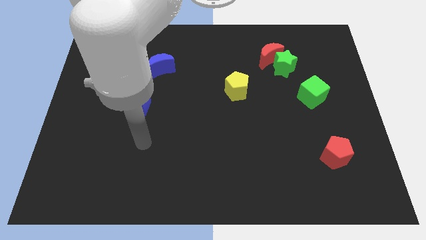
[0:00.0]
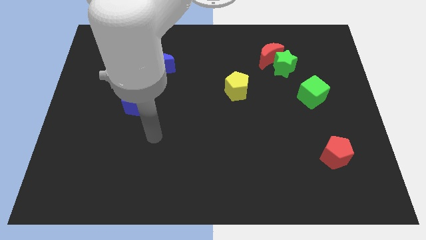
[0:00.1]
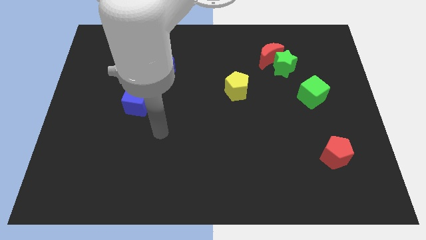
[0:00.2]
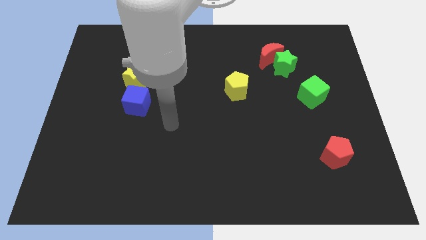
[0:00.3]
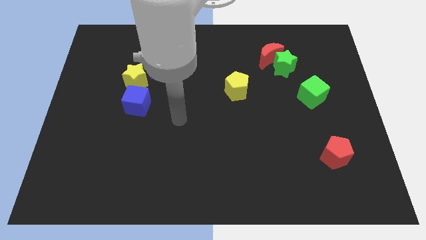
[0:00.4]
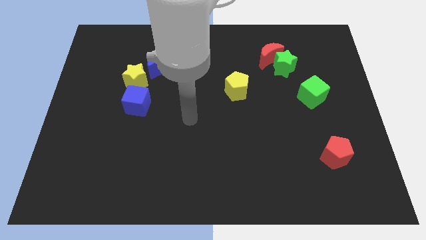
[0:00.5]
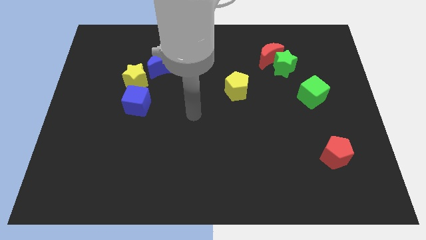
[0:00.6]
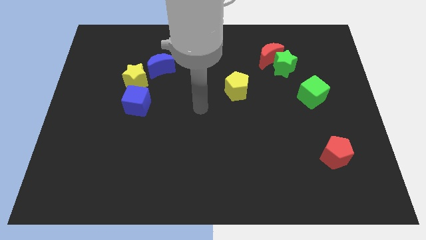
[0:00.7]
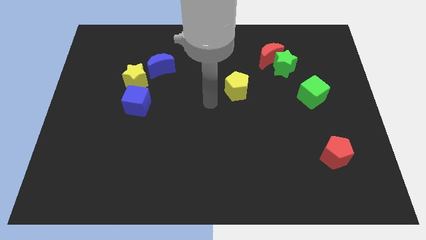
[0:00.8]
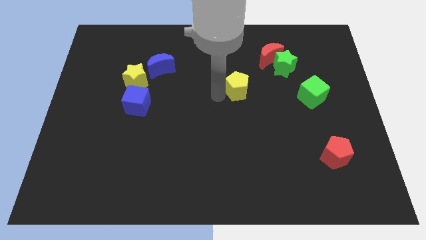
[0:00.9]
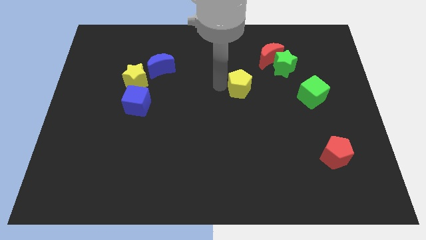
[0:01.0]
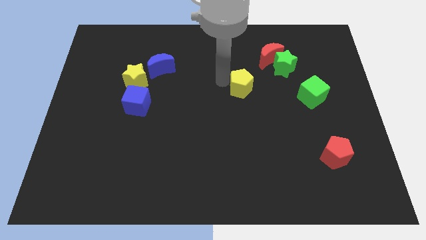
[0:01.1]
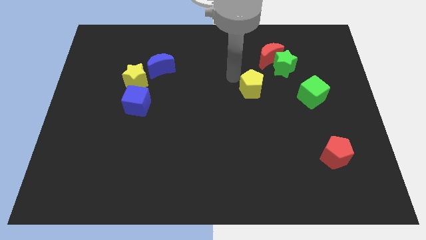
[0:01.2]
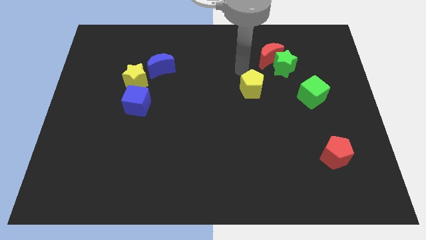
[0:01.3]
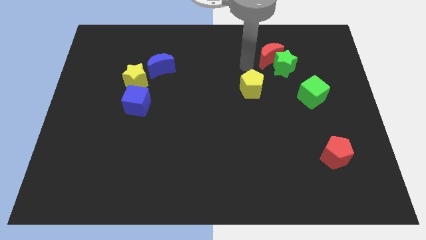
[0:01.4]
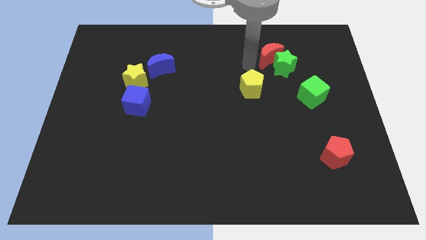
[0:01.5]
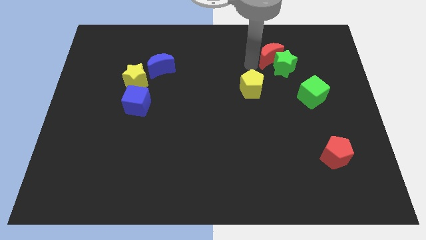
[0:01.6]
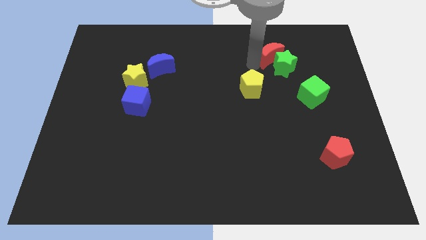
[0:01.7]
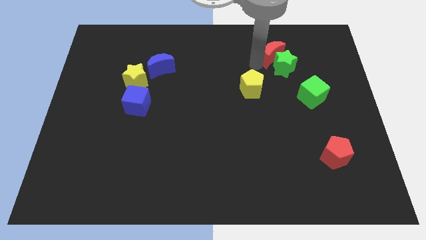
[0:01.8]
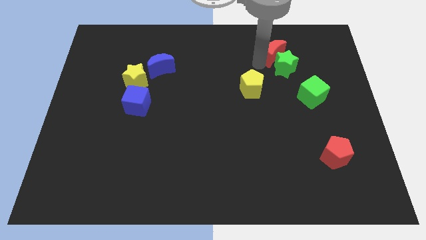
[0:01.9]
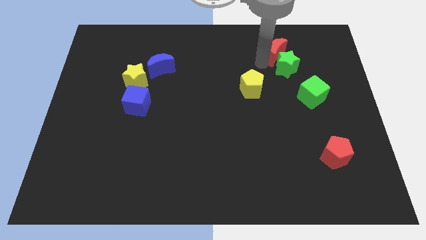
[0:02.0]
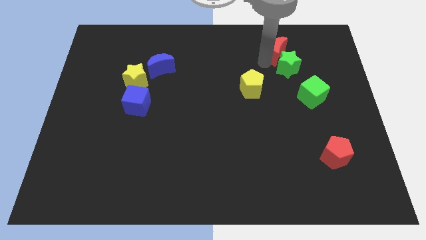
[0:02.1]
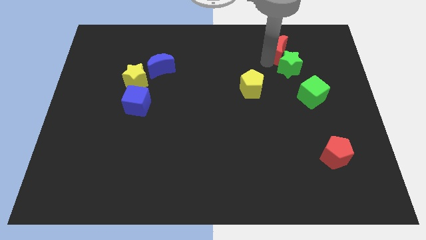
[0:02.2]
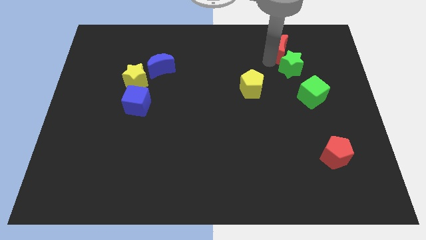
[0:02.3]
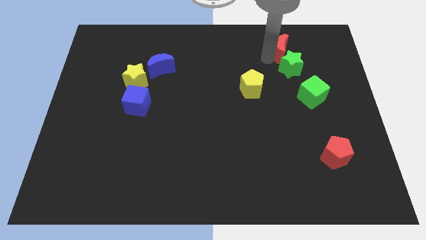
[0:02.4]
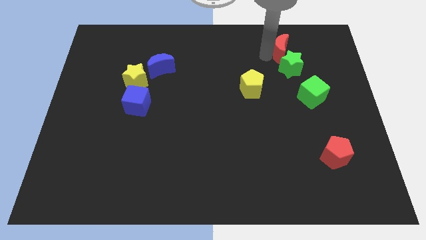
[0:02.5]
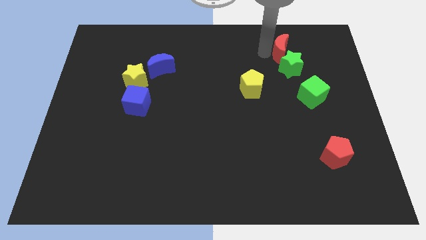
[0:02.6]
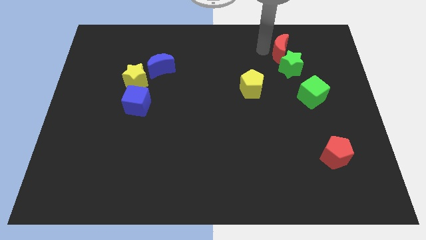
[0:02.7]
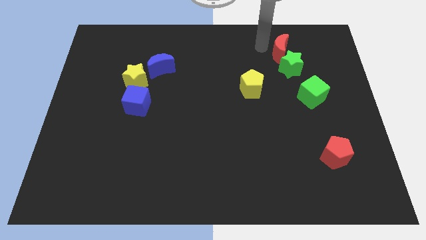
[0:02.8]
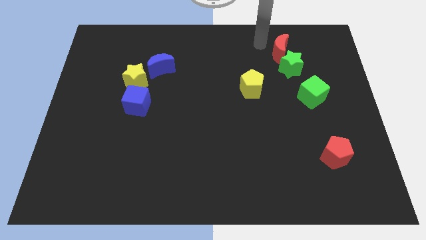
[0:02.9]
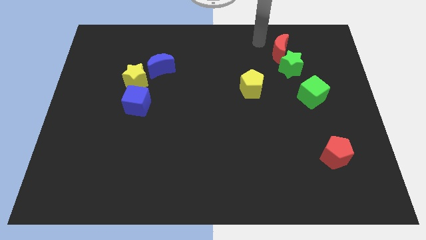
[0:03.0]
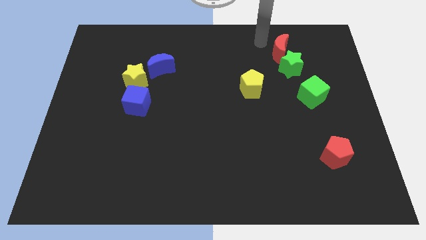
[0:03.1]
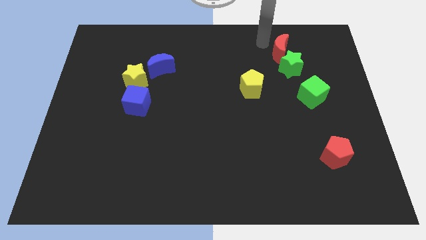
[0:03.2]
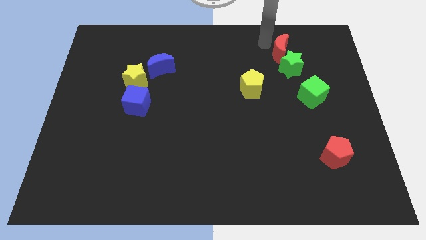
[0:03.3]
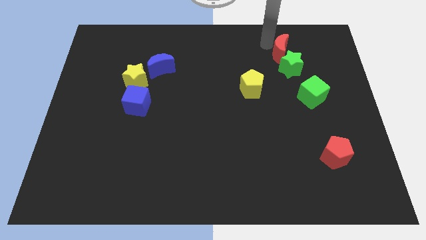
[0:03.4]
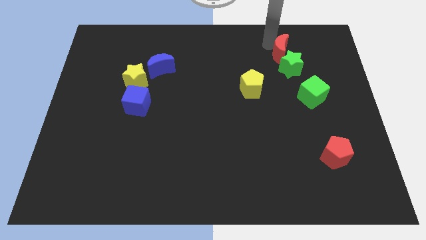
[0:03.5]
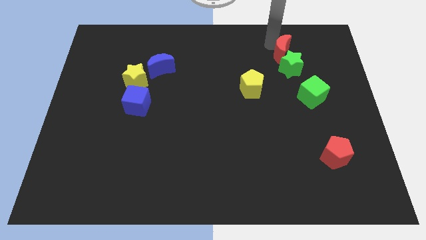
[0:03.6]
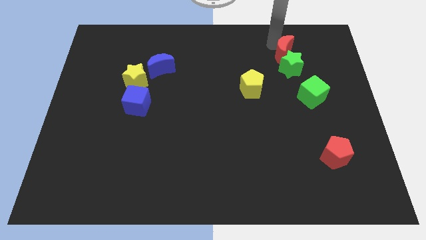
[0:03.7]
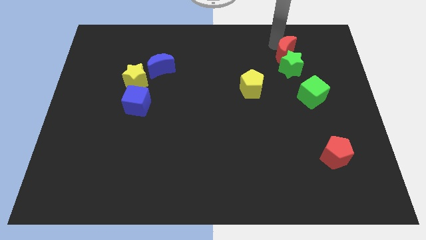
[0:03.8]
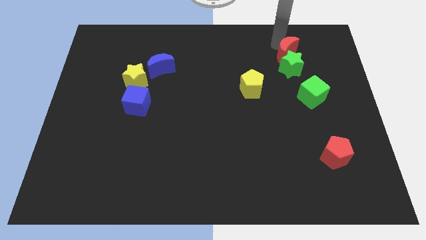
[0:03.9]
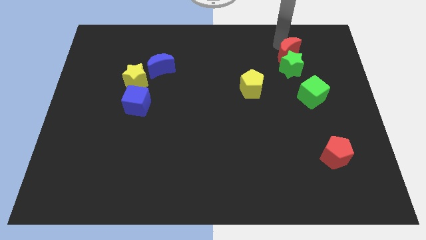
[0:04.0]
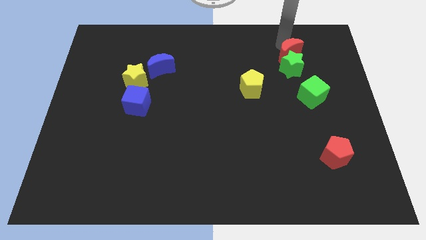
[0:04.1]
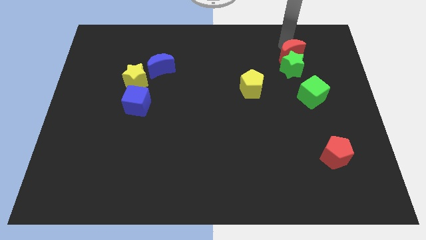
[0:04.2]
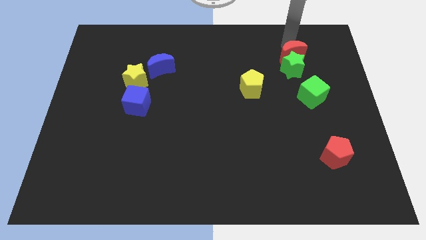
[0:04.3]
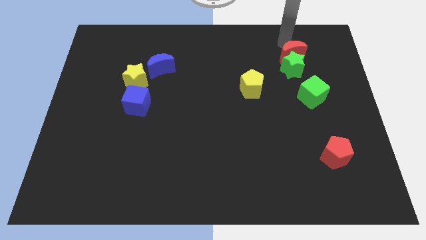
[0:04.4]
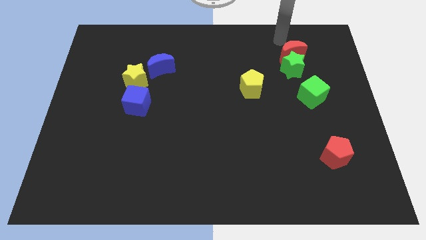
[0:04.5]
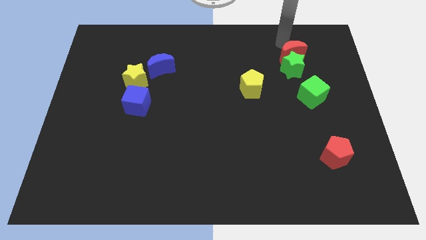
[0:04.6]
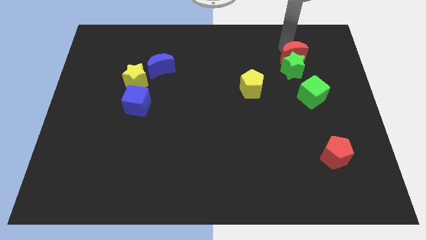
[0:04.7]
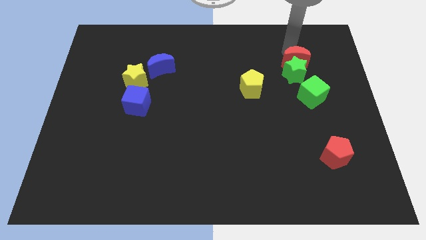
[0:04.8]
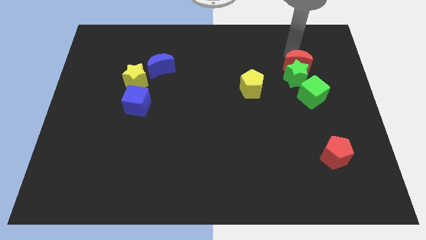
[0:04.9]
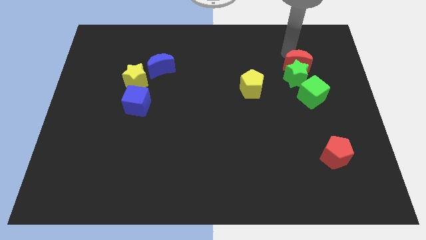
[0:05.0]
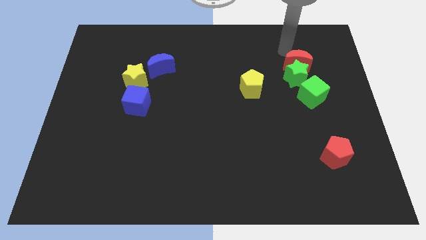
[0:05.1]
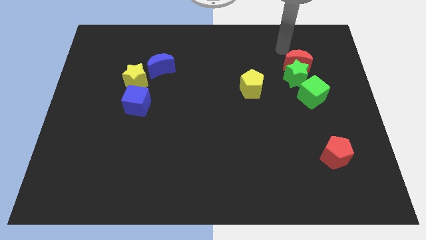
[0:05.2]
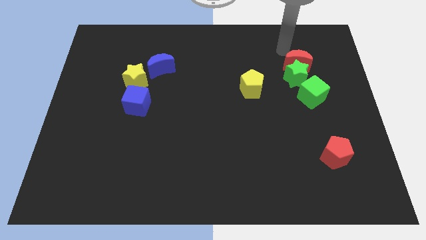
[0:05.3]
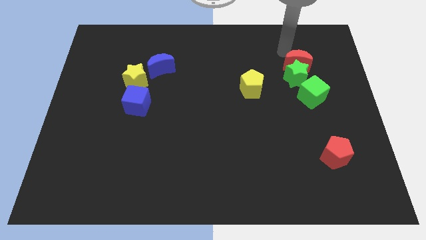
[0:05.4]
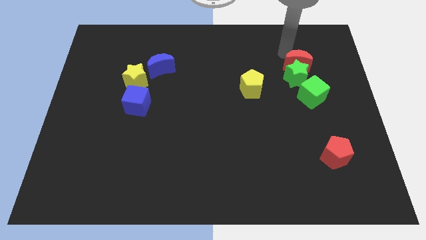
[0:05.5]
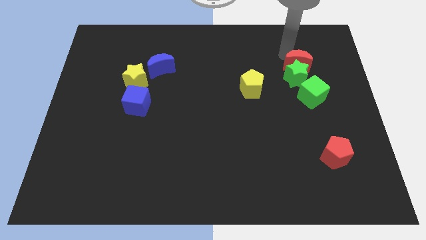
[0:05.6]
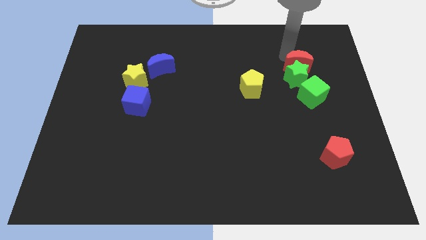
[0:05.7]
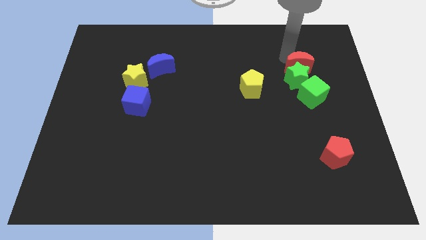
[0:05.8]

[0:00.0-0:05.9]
slide the red moon downwards and to the right slightly

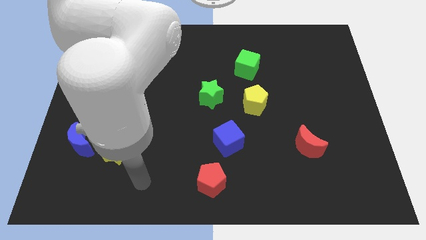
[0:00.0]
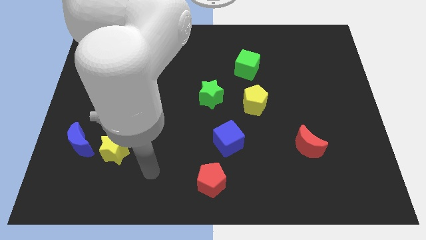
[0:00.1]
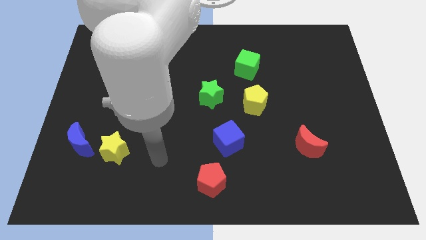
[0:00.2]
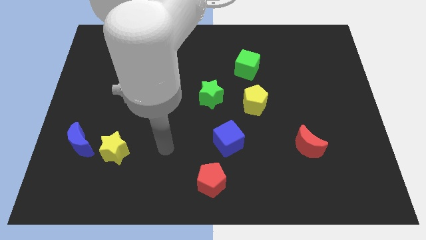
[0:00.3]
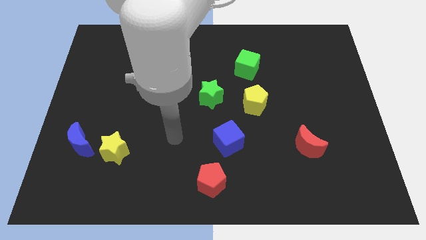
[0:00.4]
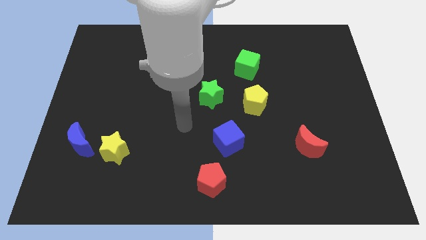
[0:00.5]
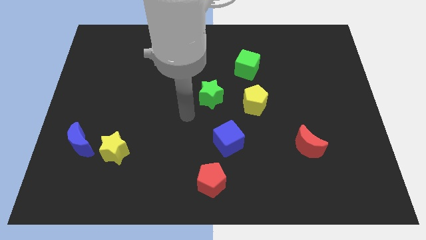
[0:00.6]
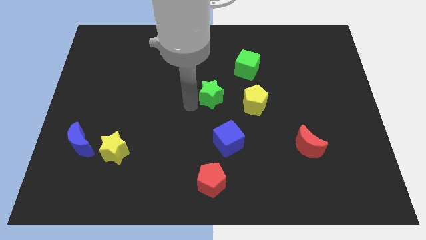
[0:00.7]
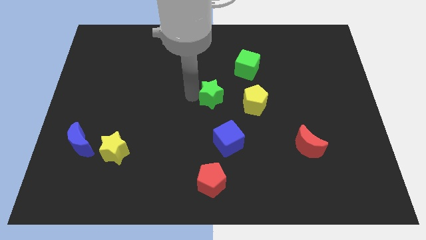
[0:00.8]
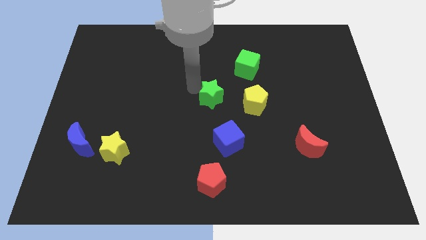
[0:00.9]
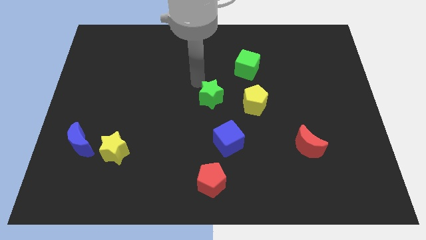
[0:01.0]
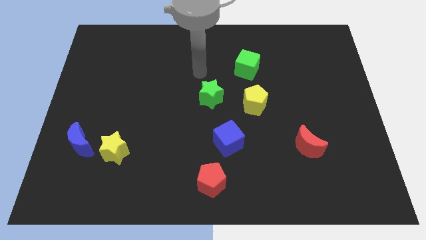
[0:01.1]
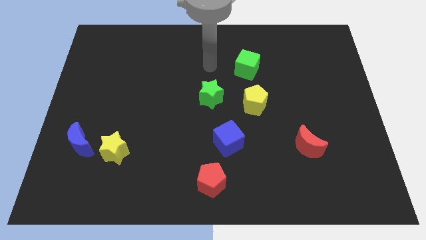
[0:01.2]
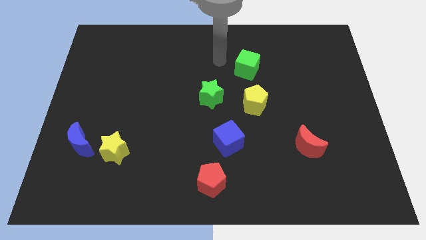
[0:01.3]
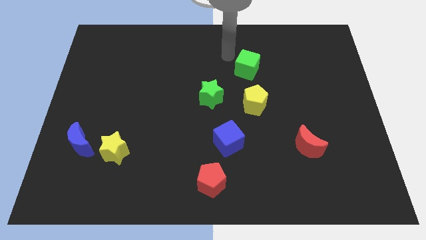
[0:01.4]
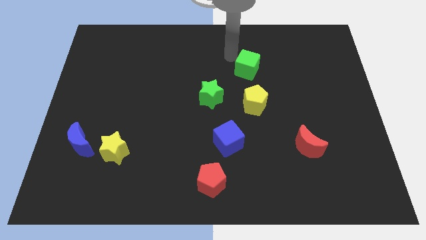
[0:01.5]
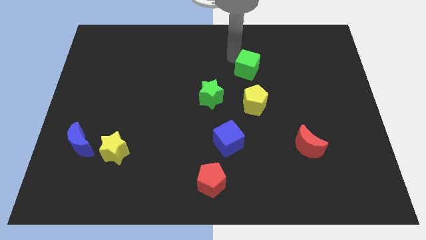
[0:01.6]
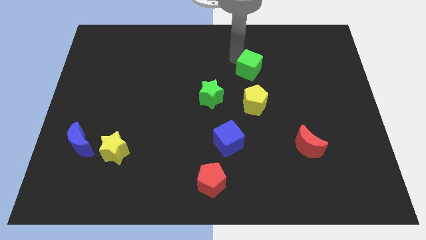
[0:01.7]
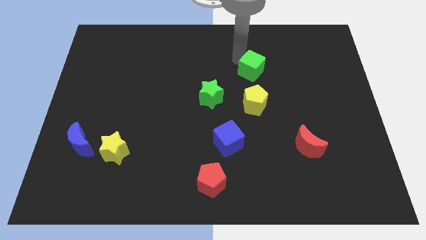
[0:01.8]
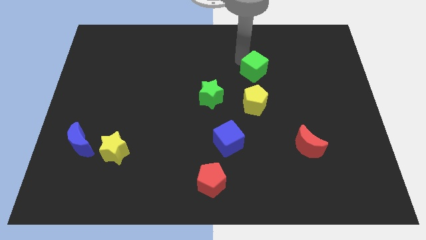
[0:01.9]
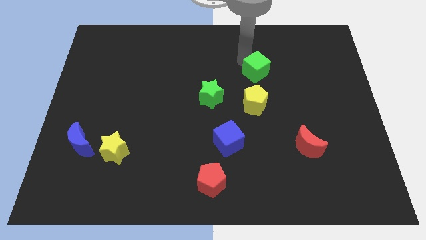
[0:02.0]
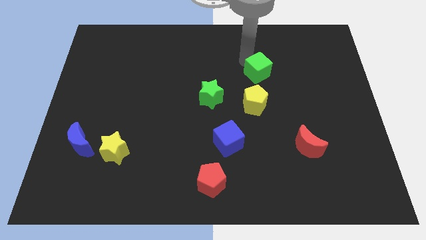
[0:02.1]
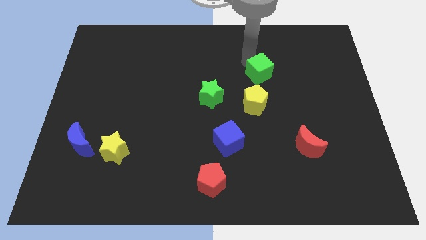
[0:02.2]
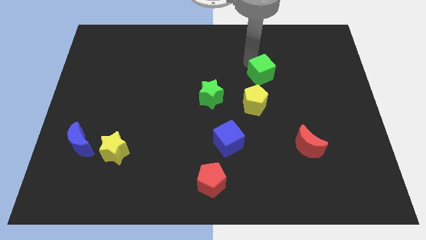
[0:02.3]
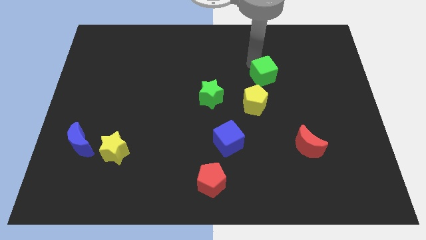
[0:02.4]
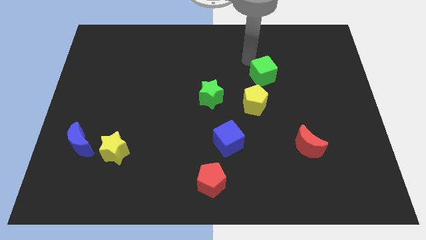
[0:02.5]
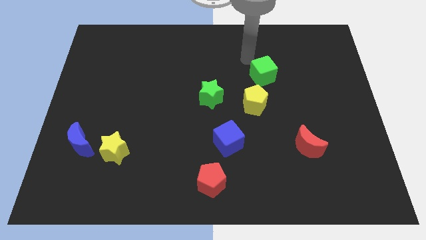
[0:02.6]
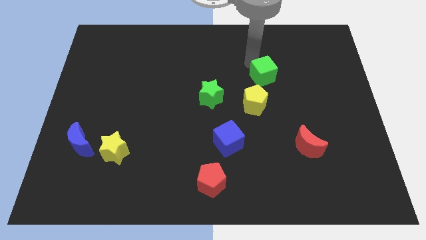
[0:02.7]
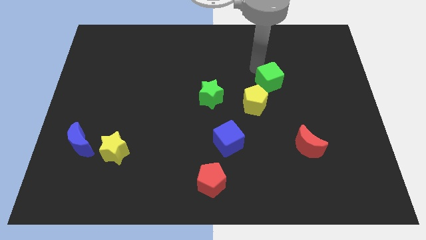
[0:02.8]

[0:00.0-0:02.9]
slightly push the green cube down and right diagonally
